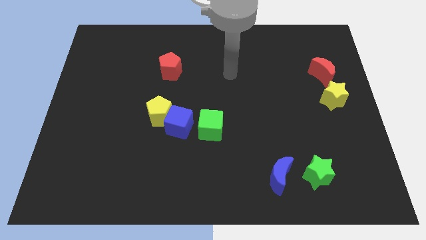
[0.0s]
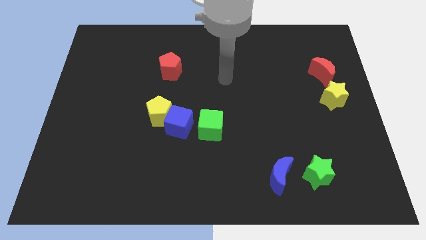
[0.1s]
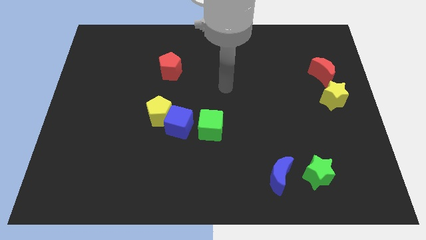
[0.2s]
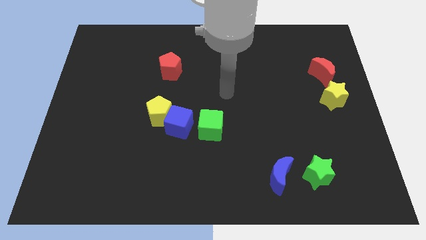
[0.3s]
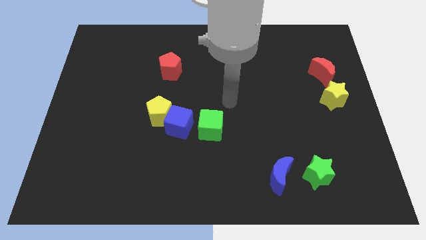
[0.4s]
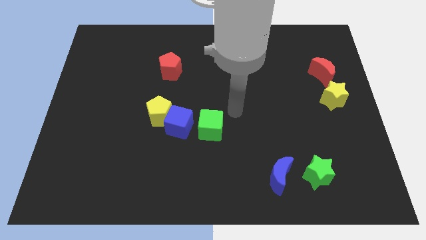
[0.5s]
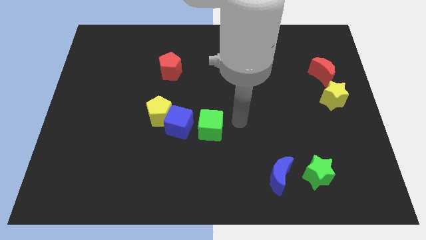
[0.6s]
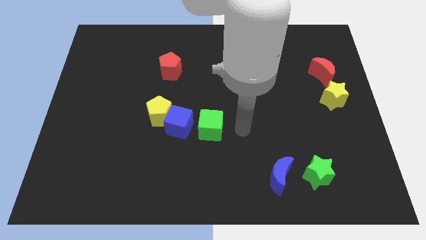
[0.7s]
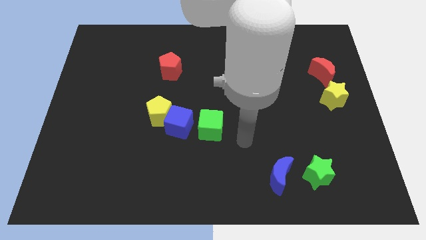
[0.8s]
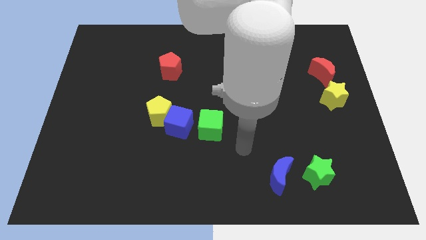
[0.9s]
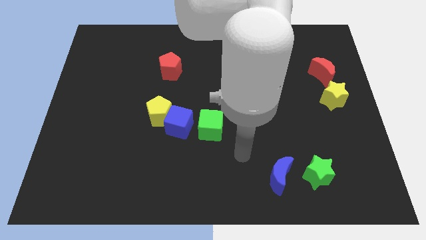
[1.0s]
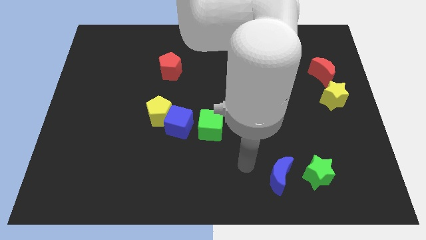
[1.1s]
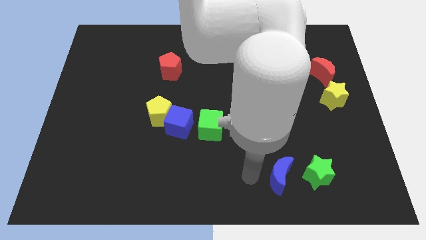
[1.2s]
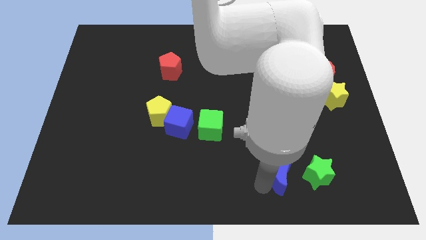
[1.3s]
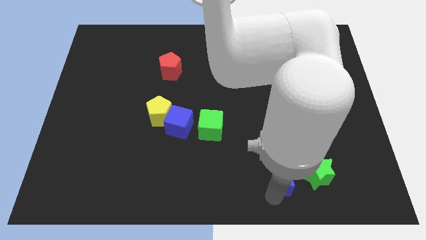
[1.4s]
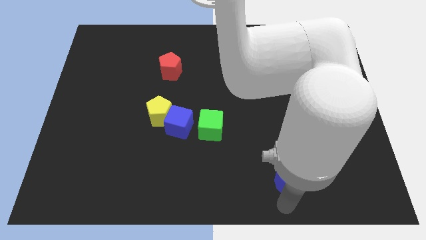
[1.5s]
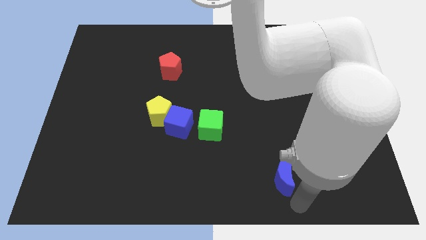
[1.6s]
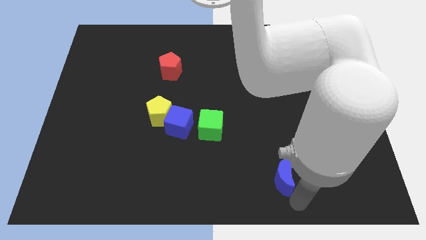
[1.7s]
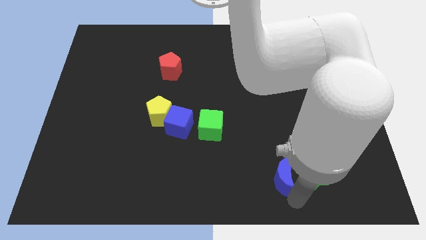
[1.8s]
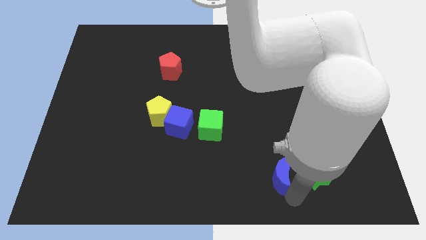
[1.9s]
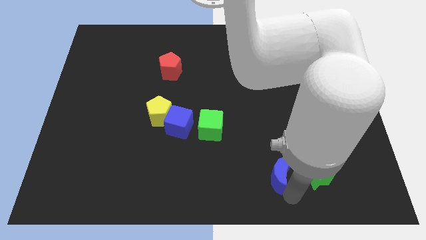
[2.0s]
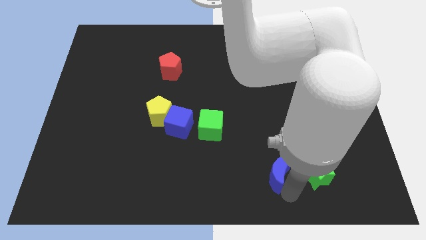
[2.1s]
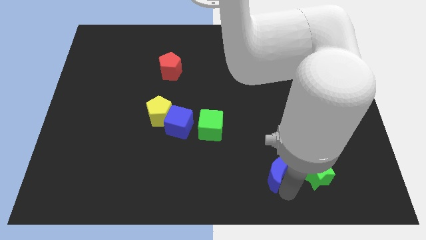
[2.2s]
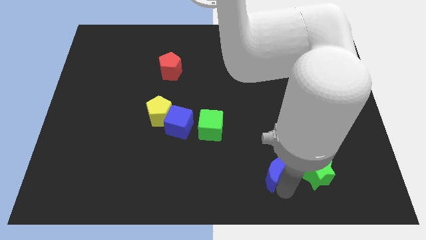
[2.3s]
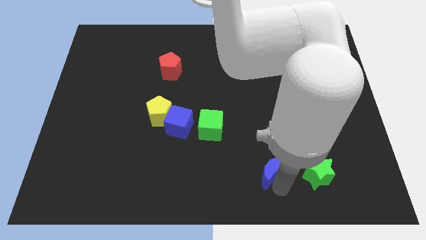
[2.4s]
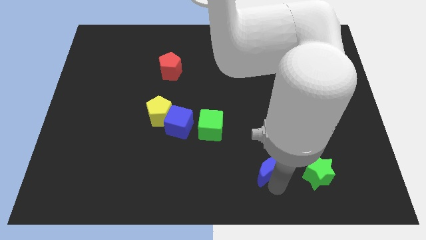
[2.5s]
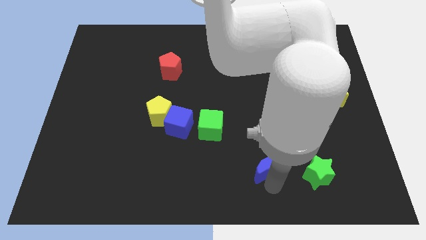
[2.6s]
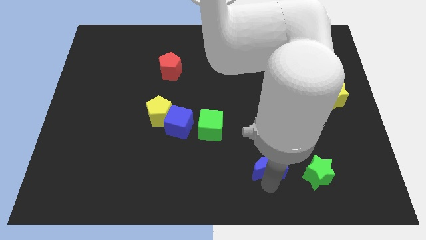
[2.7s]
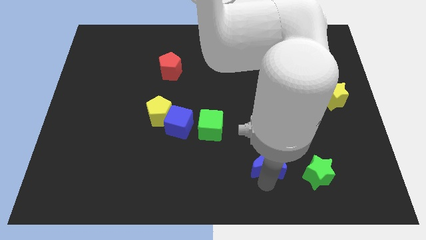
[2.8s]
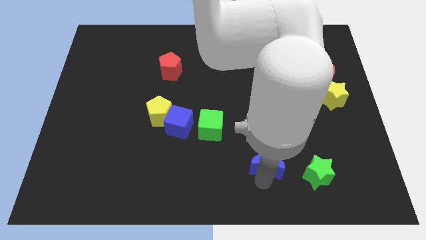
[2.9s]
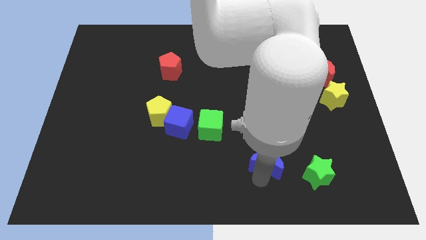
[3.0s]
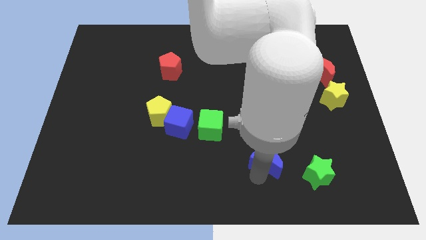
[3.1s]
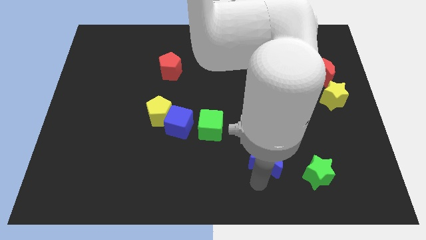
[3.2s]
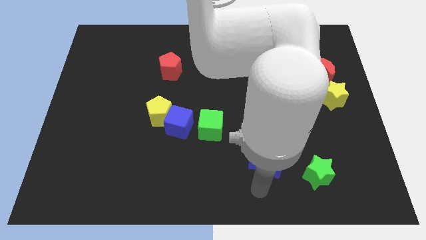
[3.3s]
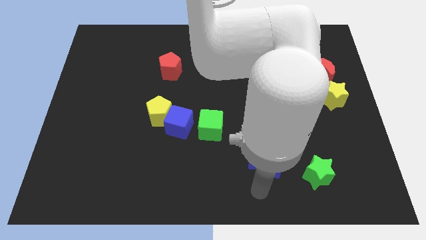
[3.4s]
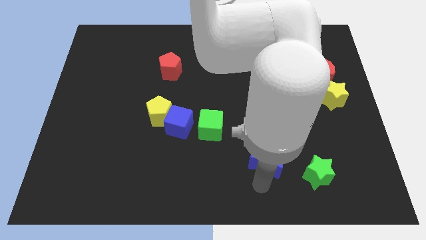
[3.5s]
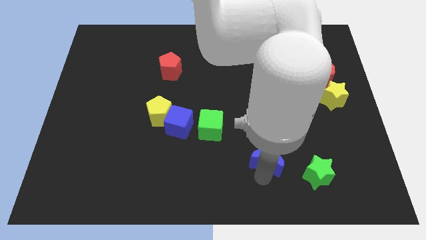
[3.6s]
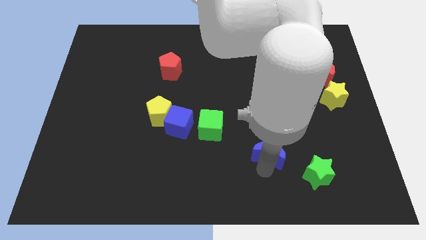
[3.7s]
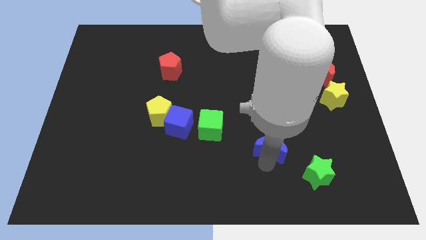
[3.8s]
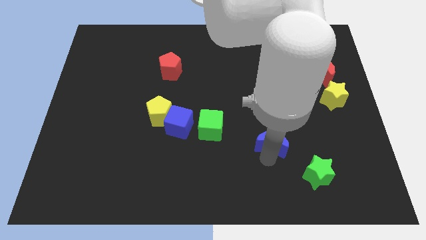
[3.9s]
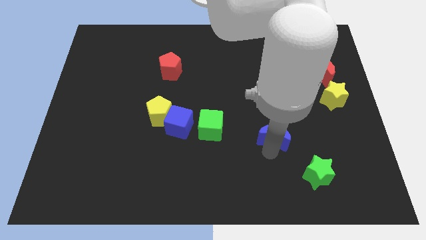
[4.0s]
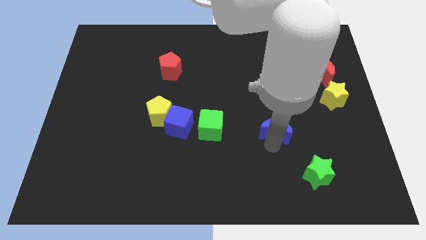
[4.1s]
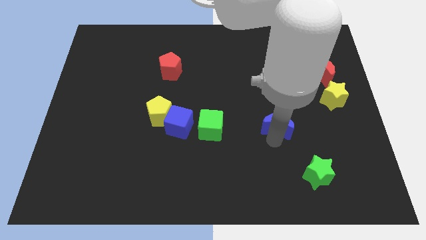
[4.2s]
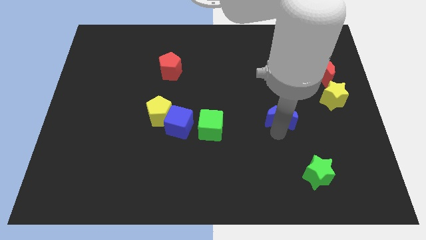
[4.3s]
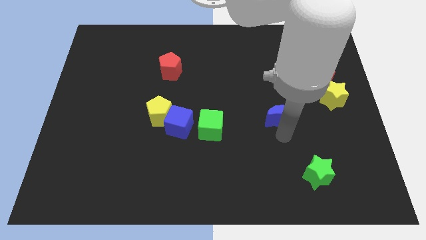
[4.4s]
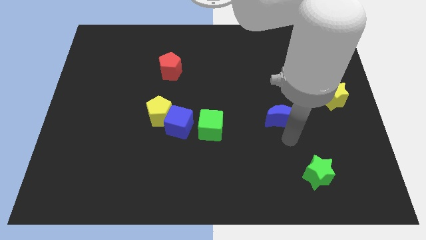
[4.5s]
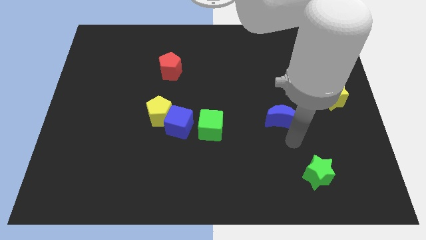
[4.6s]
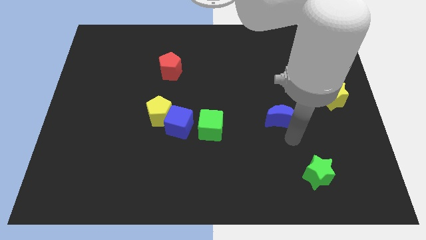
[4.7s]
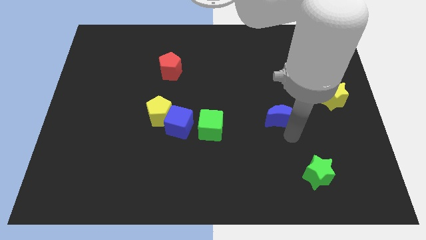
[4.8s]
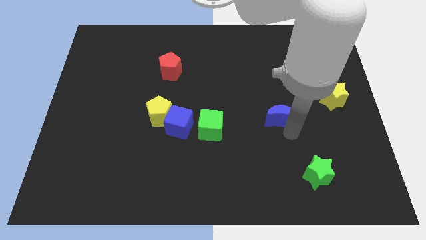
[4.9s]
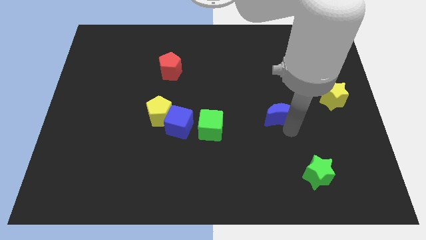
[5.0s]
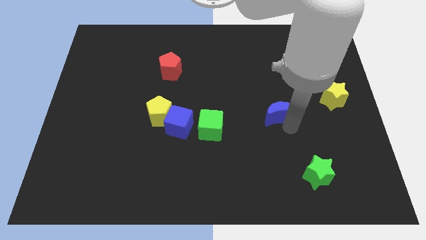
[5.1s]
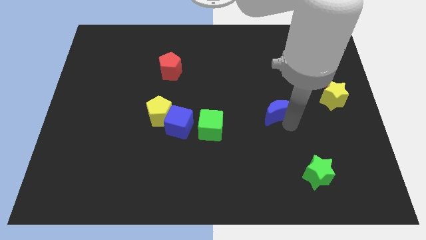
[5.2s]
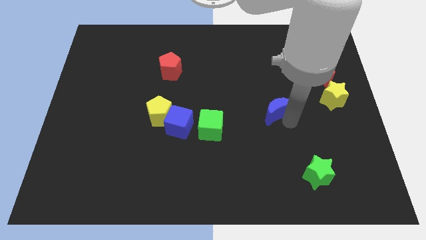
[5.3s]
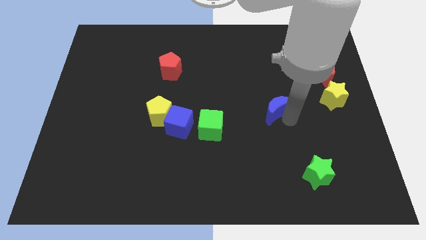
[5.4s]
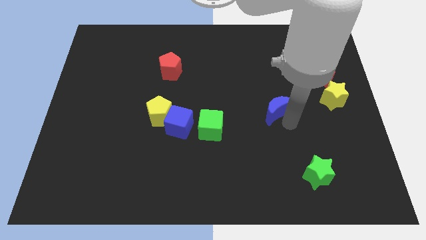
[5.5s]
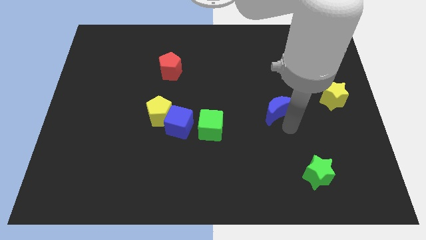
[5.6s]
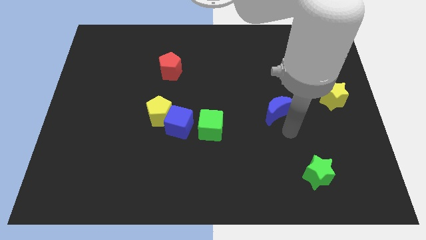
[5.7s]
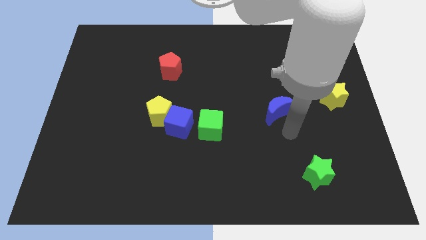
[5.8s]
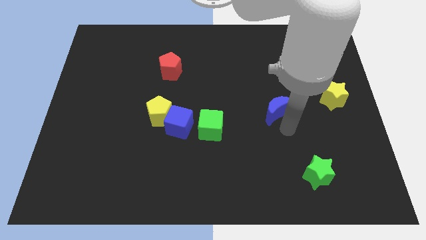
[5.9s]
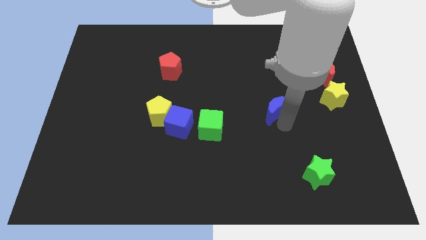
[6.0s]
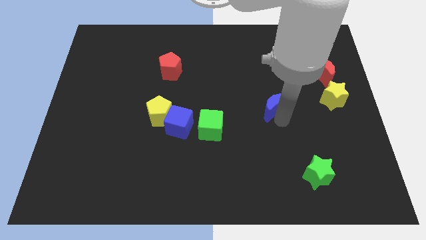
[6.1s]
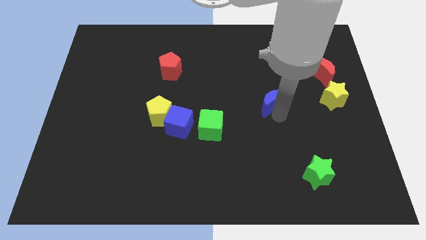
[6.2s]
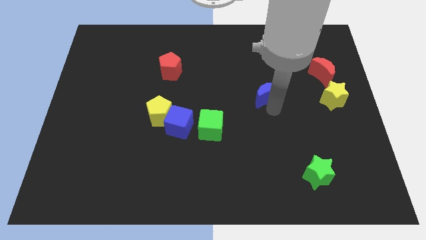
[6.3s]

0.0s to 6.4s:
slide the blue moon up

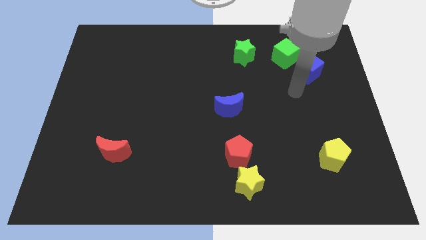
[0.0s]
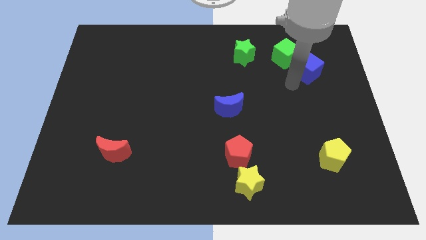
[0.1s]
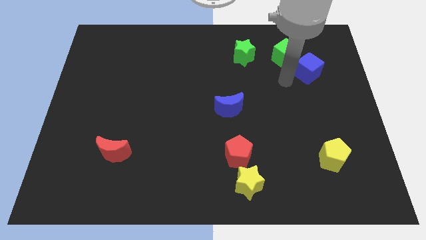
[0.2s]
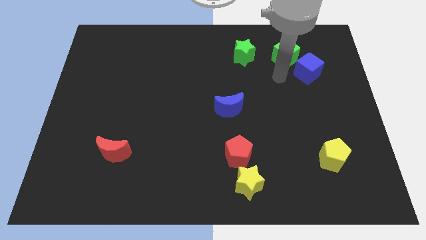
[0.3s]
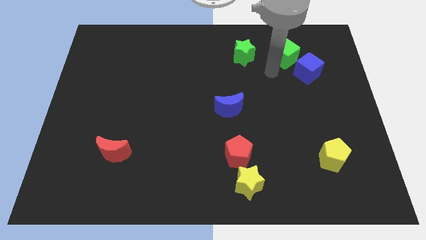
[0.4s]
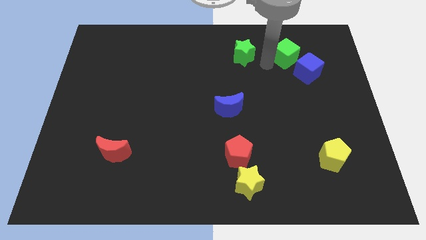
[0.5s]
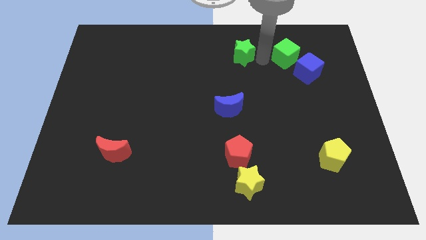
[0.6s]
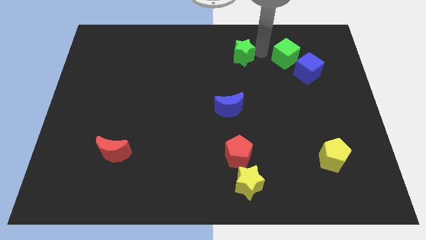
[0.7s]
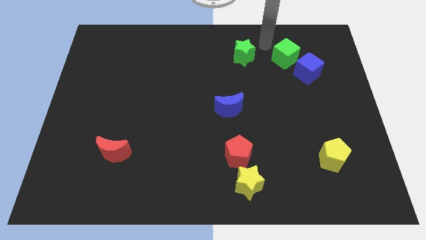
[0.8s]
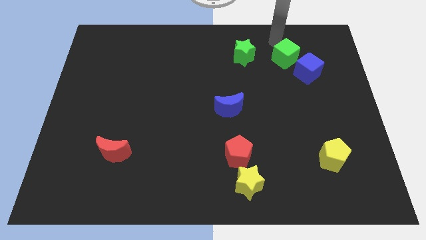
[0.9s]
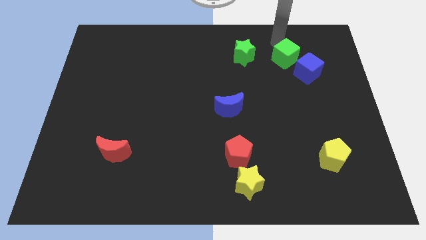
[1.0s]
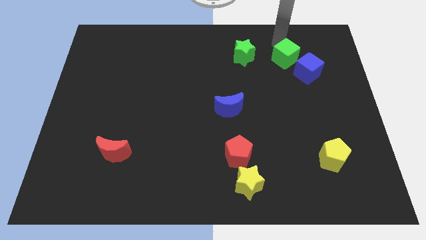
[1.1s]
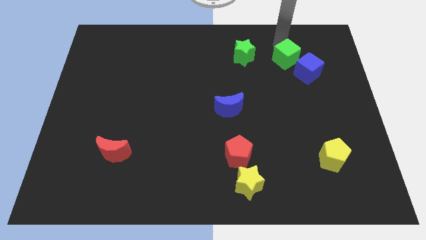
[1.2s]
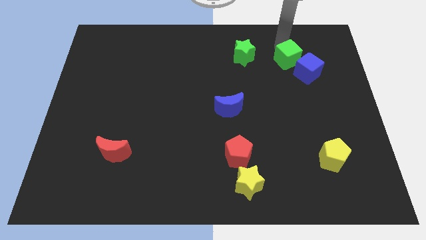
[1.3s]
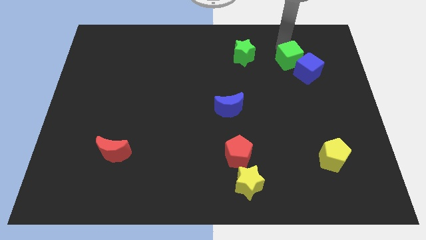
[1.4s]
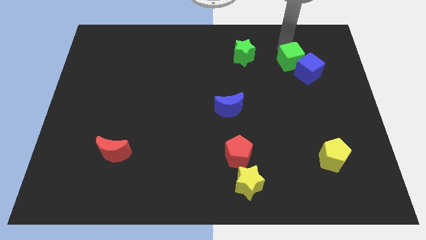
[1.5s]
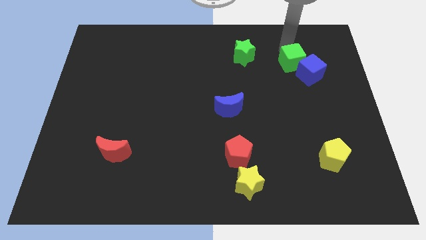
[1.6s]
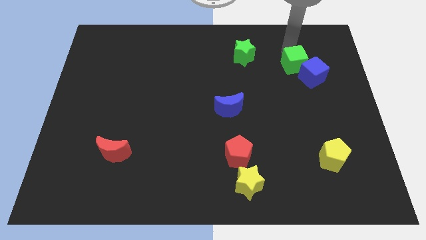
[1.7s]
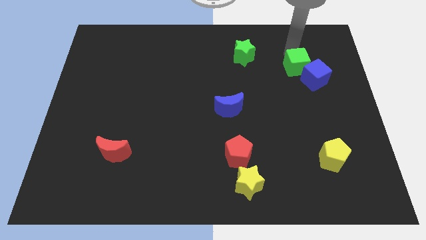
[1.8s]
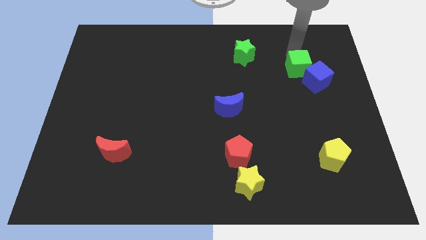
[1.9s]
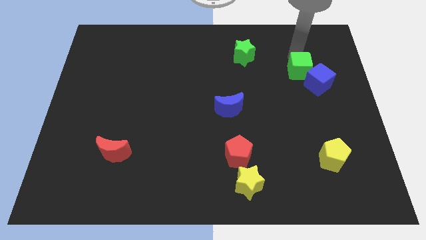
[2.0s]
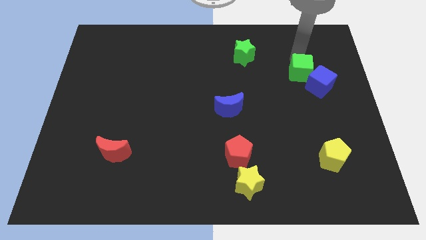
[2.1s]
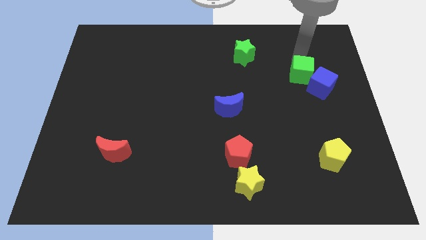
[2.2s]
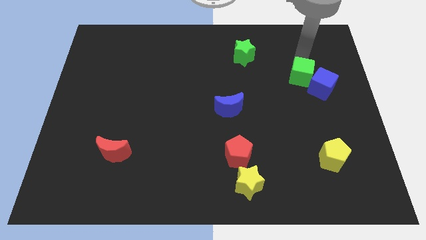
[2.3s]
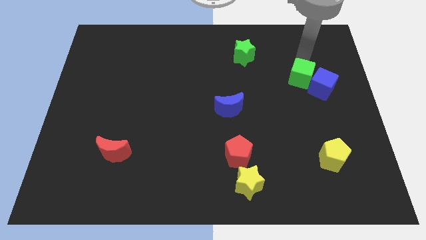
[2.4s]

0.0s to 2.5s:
slightly push the green cube down
